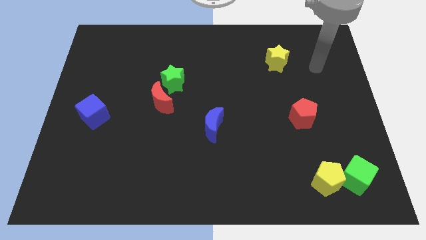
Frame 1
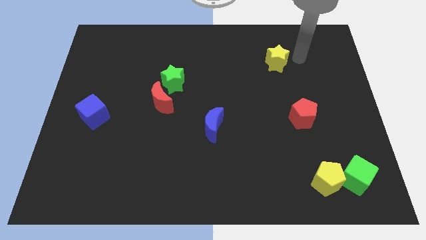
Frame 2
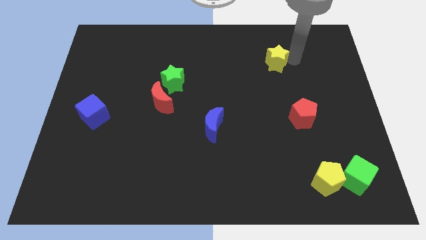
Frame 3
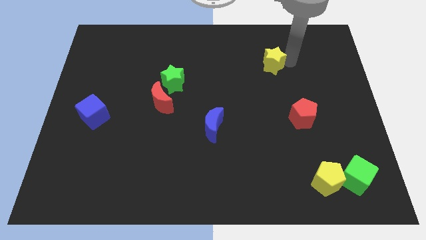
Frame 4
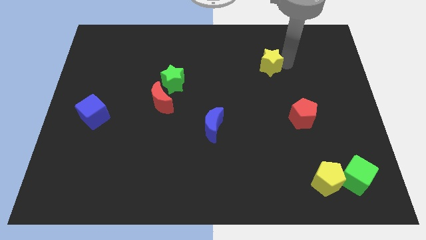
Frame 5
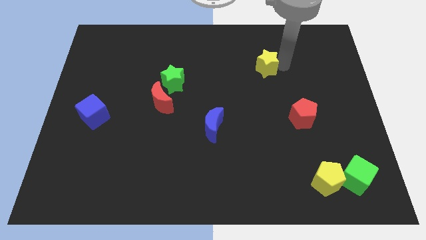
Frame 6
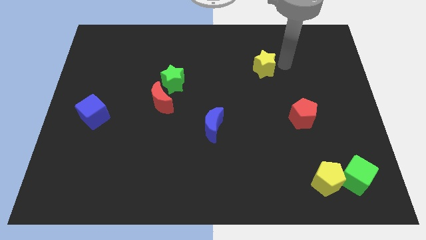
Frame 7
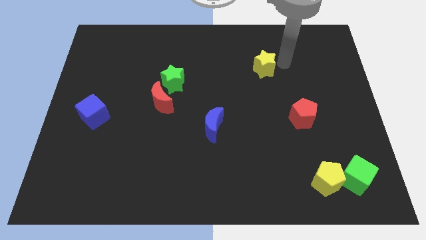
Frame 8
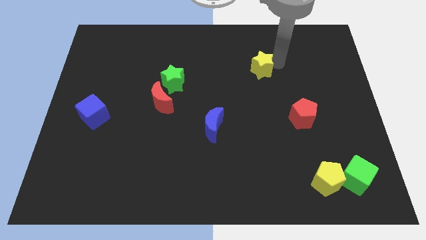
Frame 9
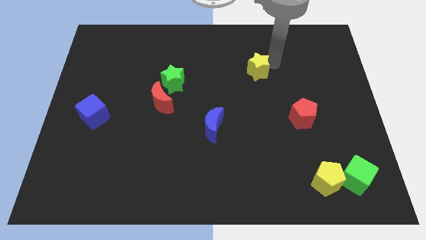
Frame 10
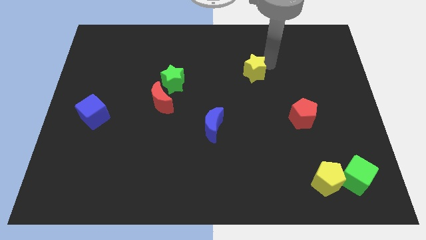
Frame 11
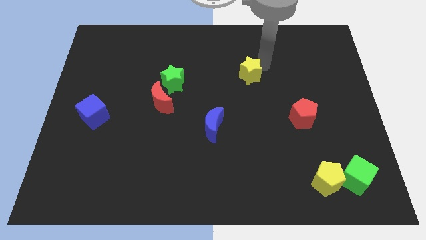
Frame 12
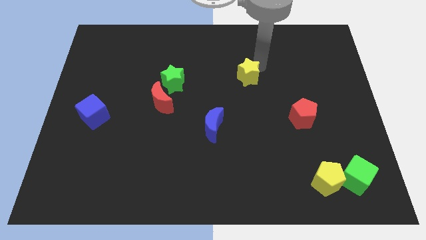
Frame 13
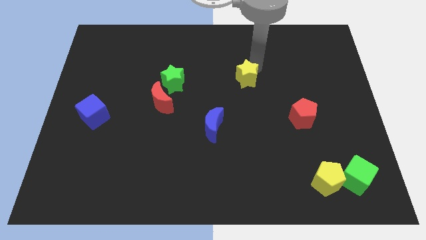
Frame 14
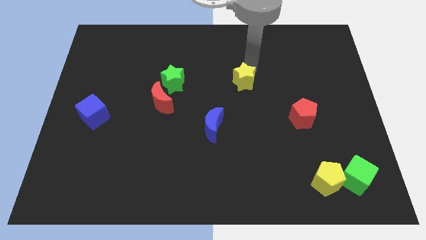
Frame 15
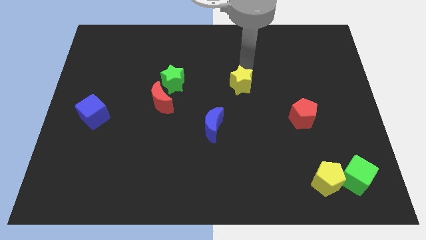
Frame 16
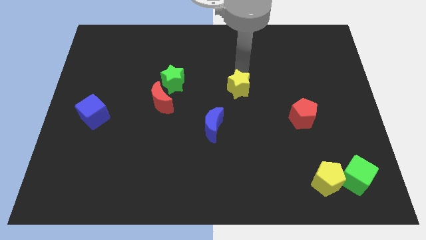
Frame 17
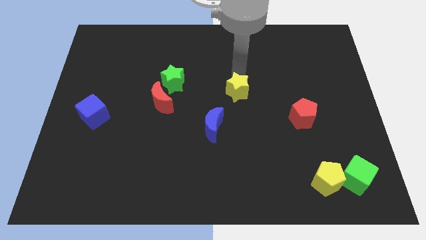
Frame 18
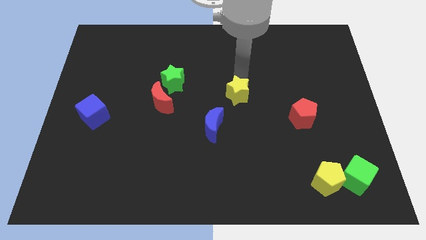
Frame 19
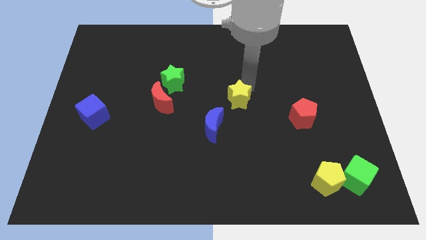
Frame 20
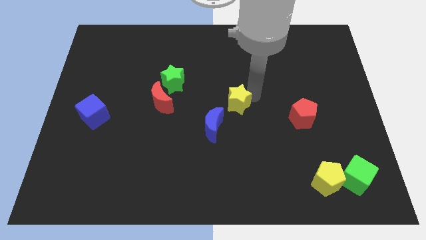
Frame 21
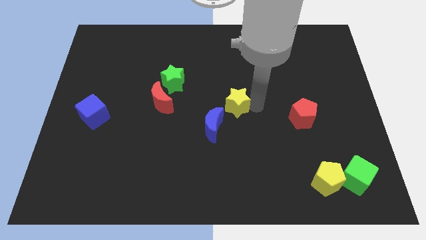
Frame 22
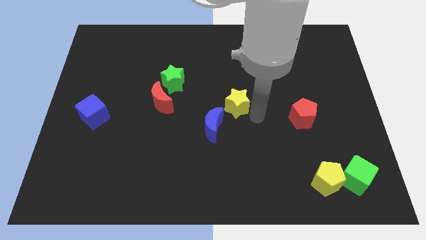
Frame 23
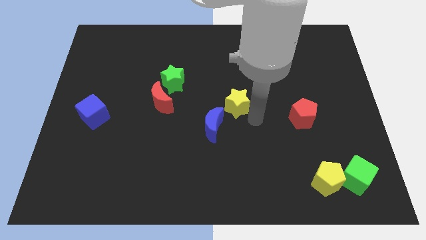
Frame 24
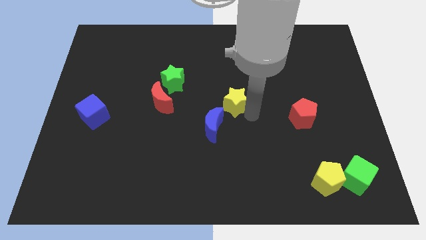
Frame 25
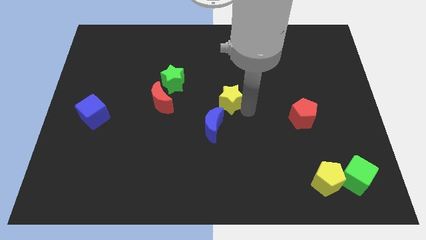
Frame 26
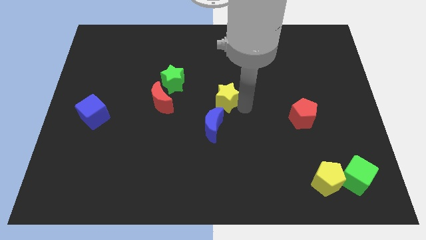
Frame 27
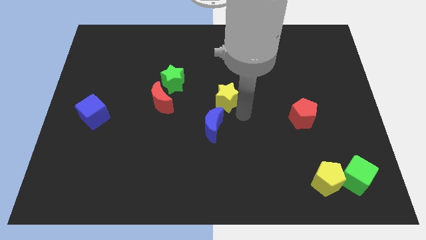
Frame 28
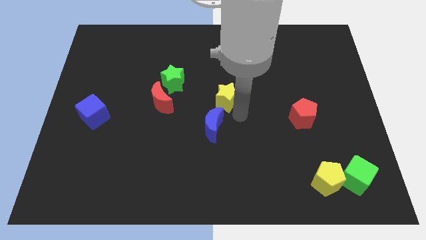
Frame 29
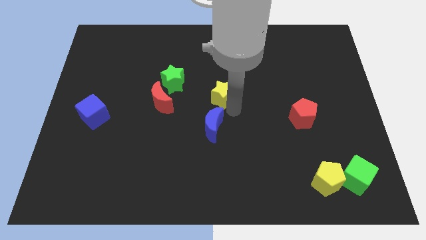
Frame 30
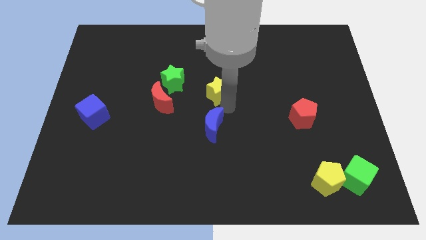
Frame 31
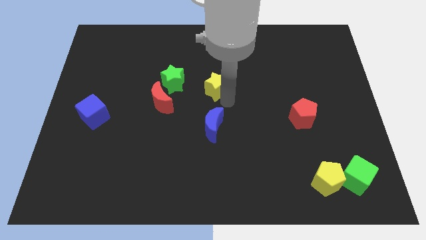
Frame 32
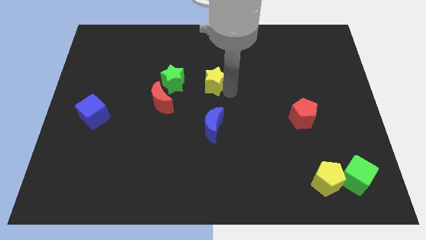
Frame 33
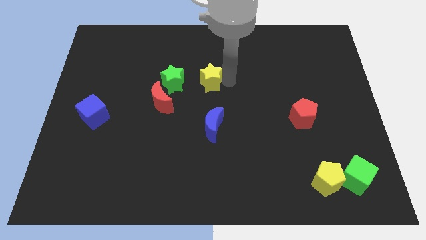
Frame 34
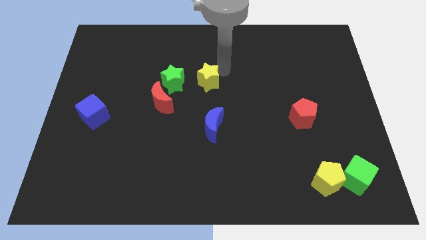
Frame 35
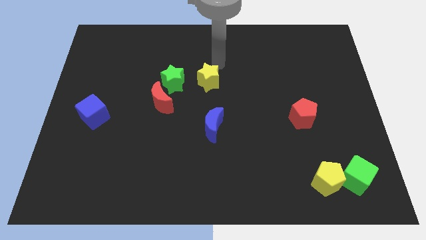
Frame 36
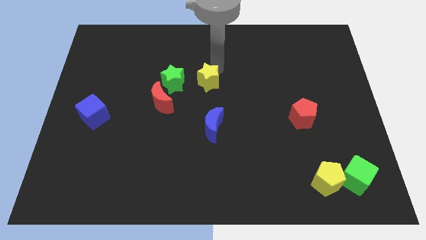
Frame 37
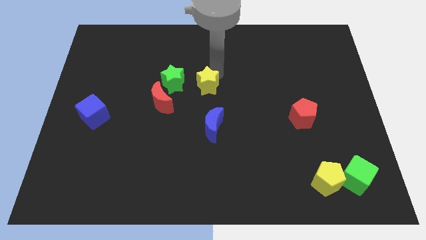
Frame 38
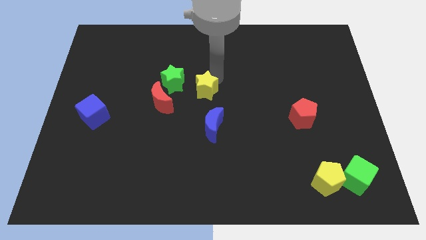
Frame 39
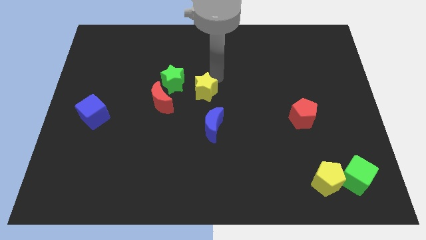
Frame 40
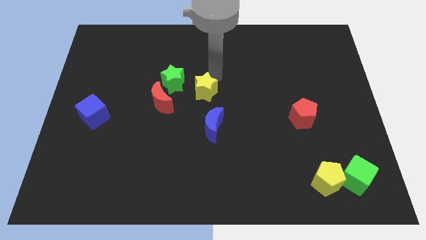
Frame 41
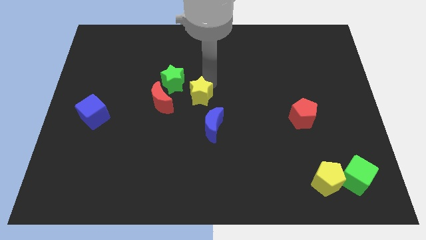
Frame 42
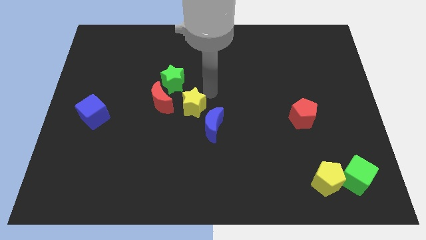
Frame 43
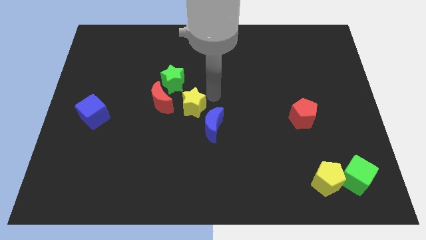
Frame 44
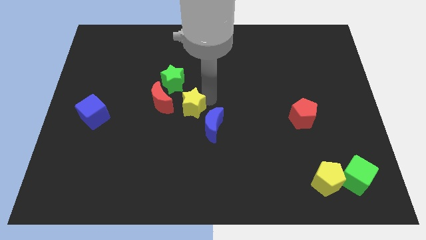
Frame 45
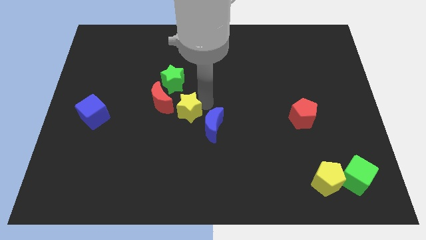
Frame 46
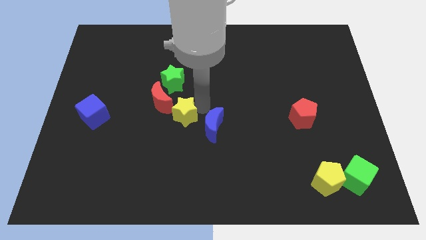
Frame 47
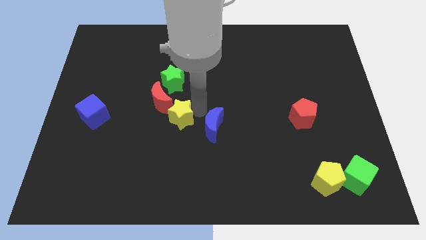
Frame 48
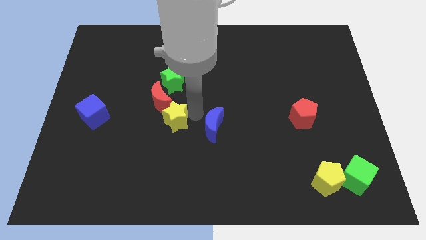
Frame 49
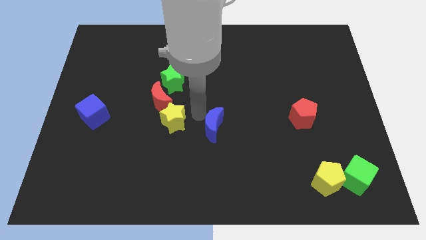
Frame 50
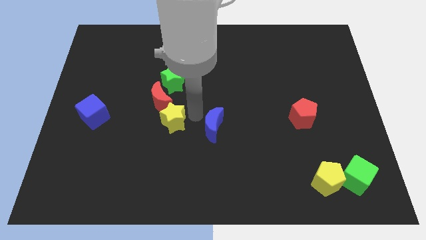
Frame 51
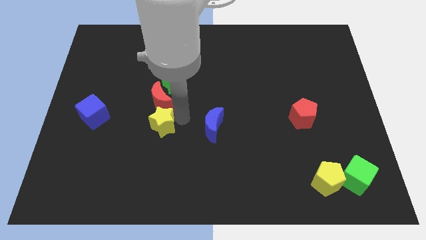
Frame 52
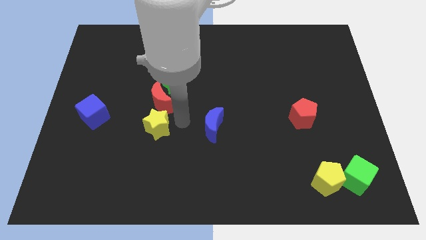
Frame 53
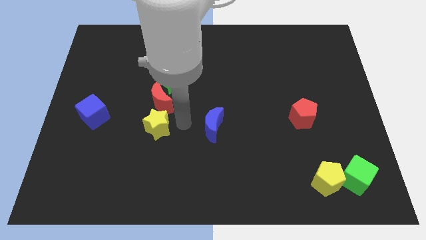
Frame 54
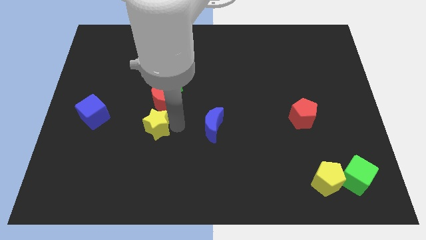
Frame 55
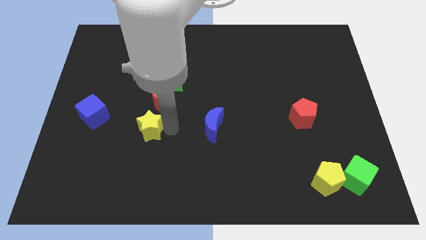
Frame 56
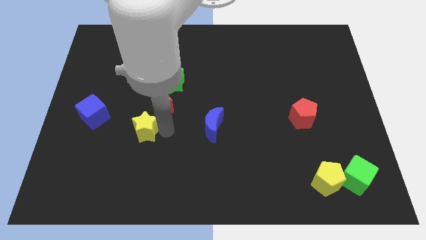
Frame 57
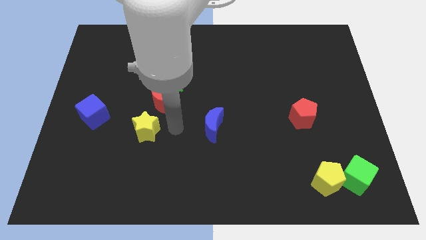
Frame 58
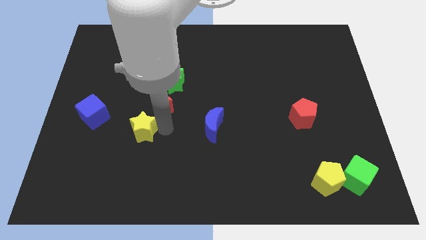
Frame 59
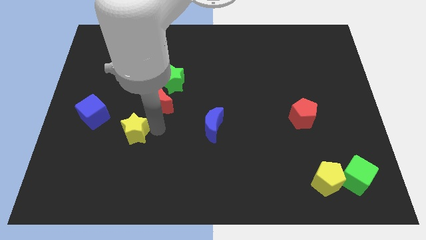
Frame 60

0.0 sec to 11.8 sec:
put the yellow star diagonally down and to the right of the blue cube

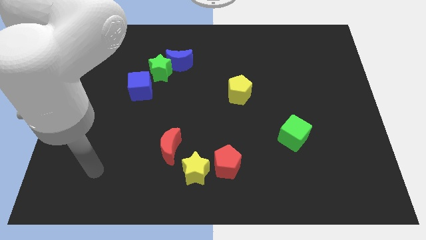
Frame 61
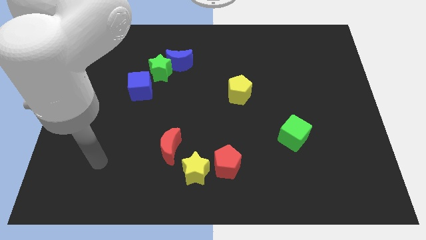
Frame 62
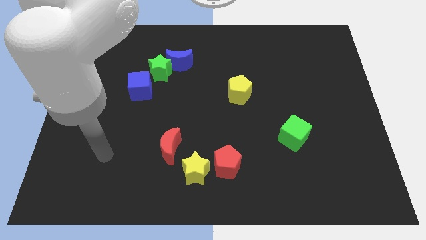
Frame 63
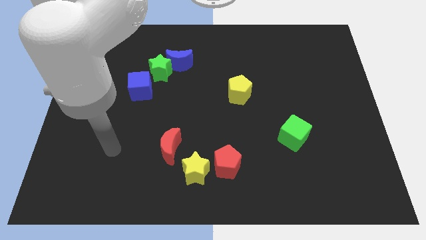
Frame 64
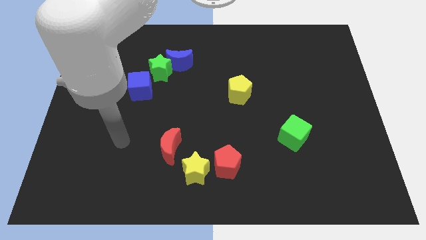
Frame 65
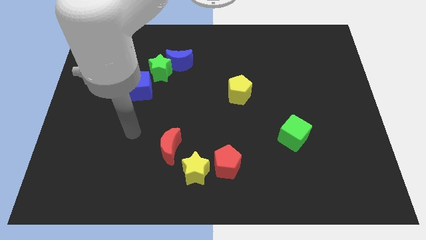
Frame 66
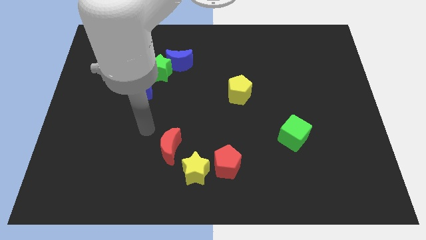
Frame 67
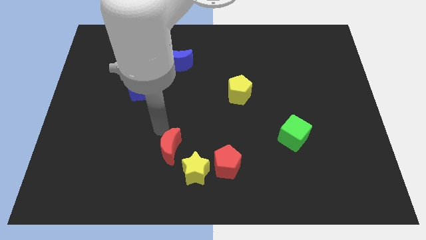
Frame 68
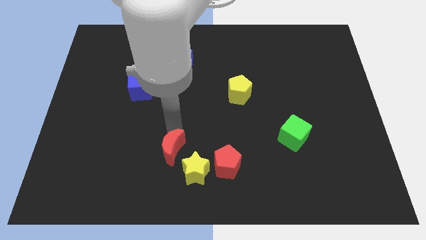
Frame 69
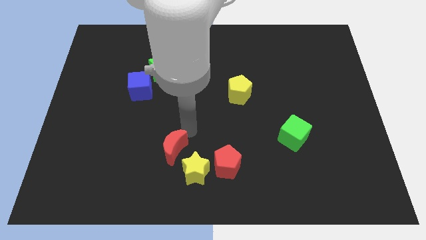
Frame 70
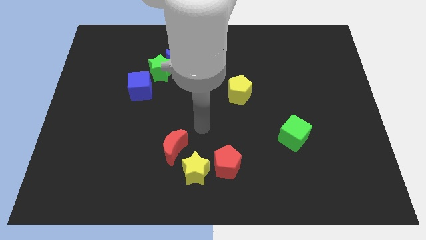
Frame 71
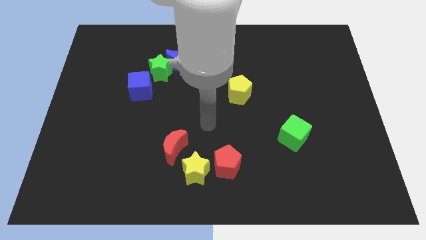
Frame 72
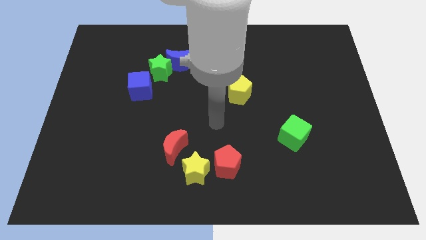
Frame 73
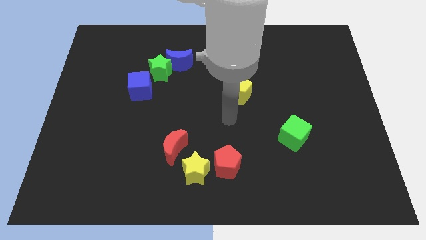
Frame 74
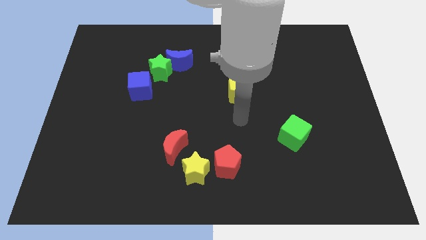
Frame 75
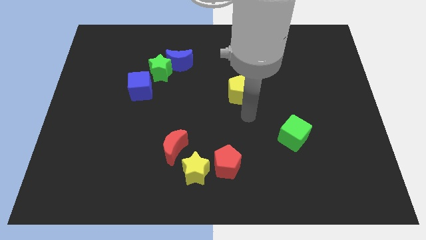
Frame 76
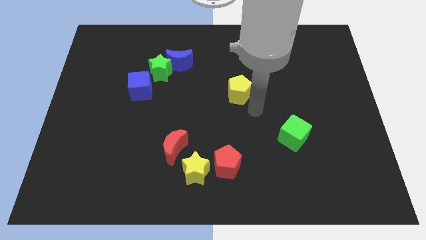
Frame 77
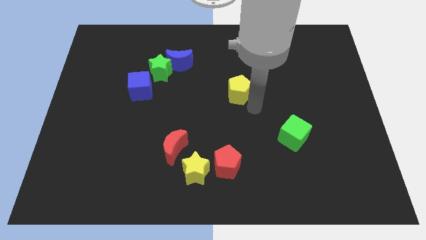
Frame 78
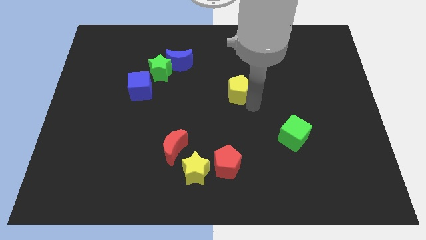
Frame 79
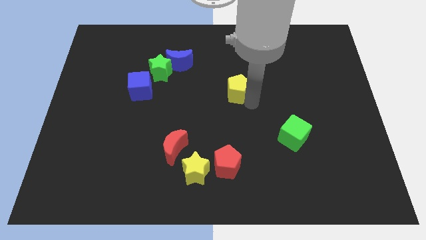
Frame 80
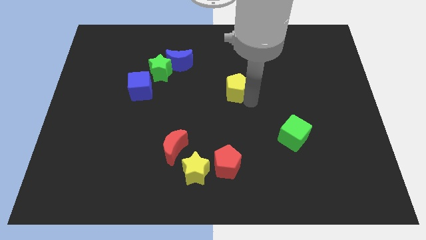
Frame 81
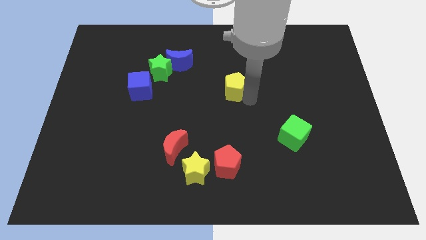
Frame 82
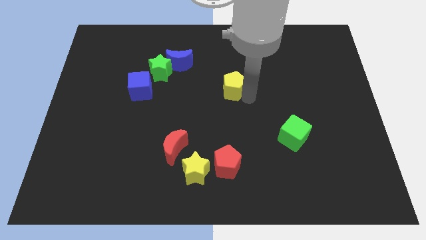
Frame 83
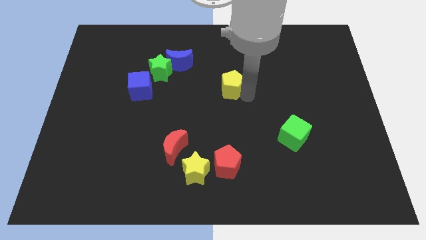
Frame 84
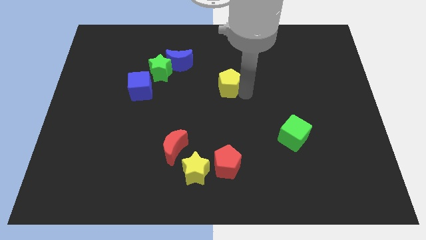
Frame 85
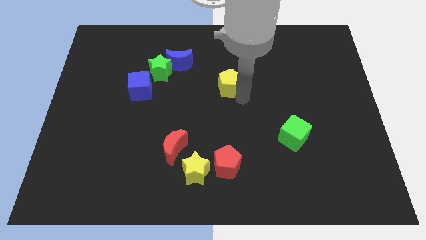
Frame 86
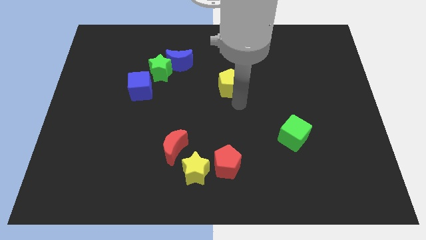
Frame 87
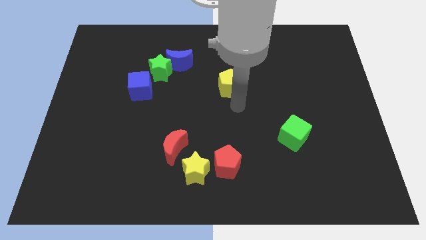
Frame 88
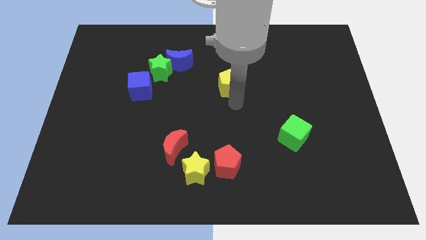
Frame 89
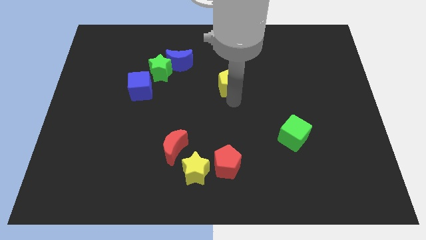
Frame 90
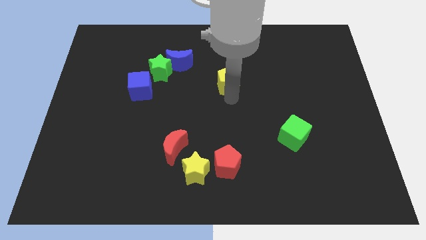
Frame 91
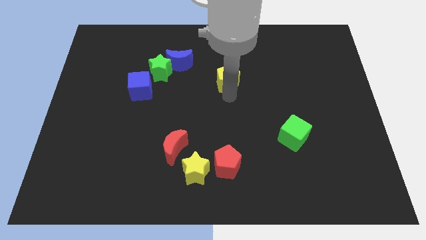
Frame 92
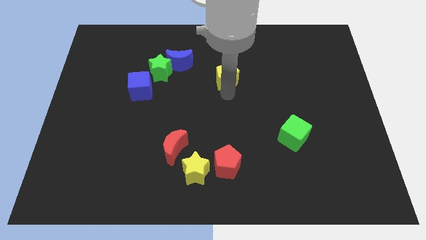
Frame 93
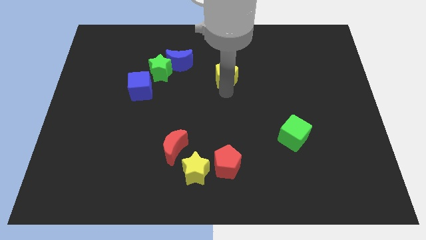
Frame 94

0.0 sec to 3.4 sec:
push the yellow pentagon just right of the blue moon
